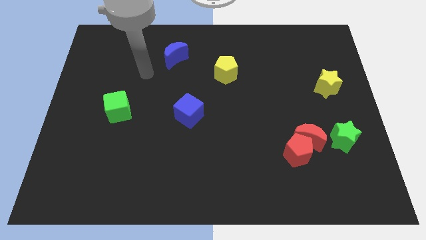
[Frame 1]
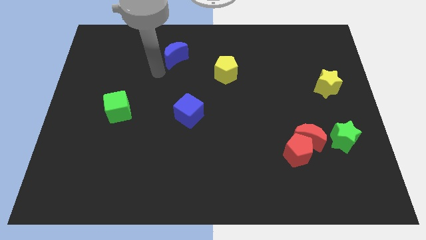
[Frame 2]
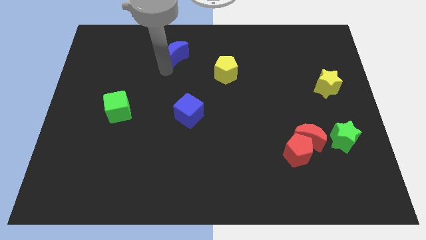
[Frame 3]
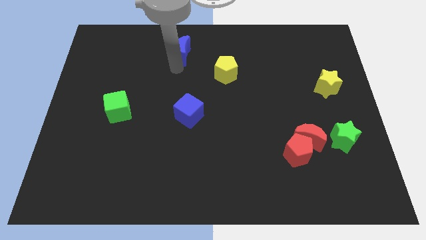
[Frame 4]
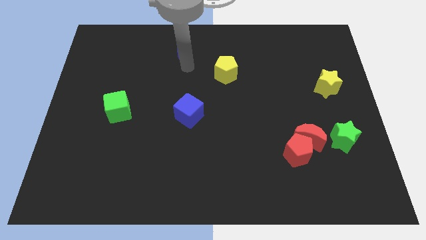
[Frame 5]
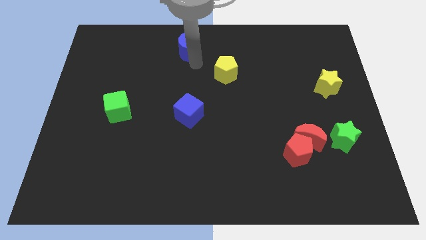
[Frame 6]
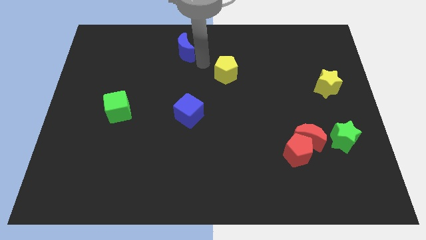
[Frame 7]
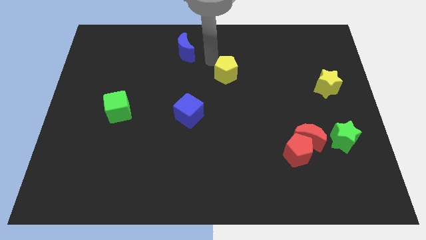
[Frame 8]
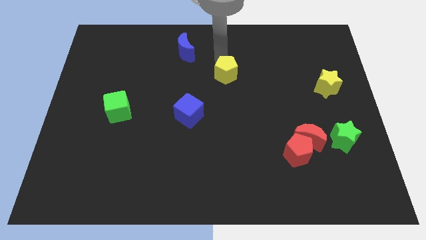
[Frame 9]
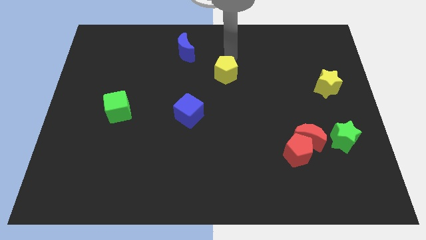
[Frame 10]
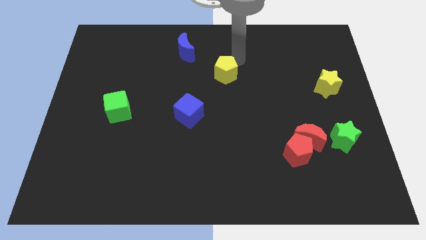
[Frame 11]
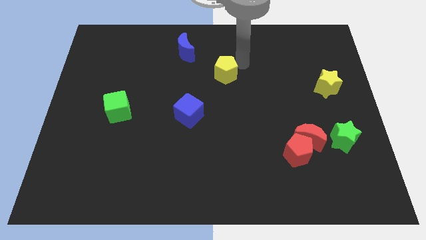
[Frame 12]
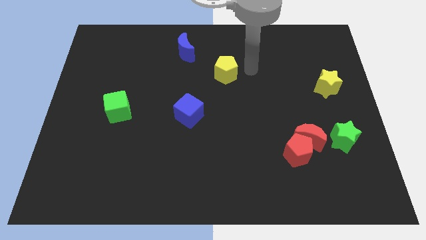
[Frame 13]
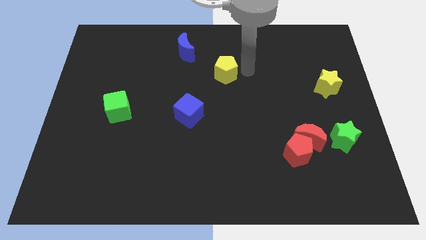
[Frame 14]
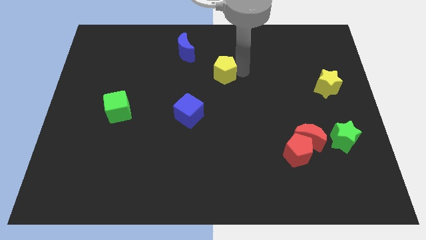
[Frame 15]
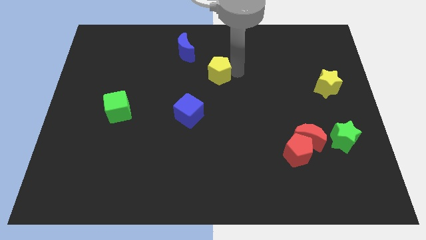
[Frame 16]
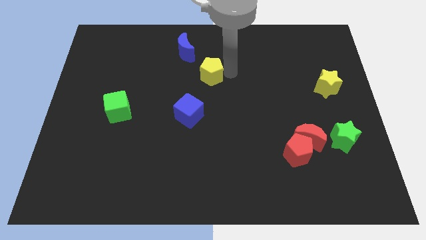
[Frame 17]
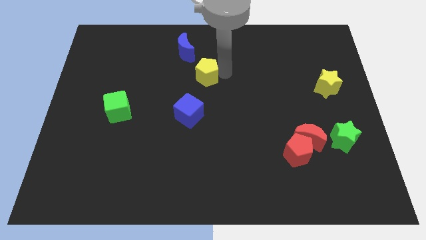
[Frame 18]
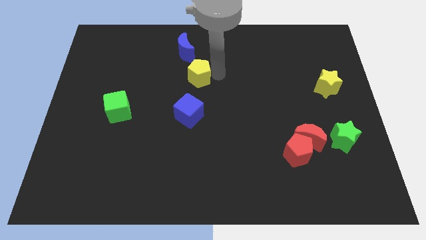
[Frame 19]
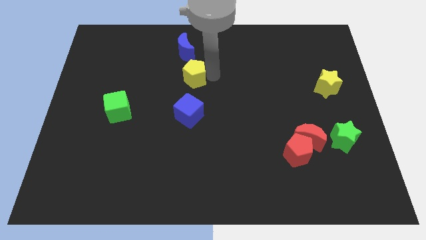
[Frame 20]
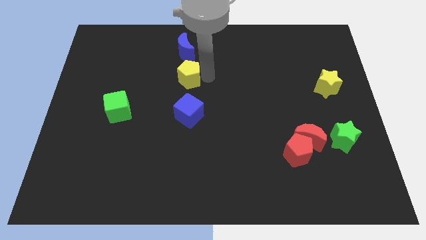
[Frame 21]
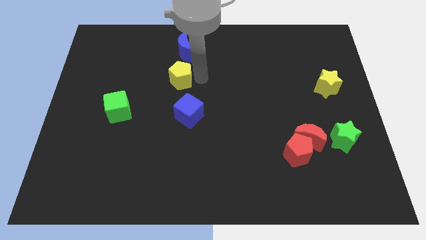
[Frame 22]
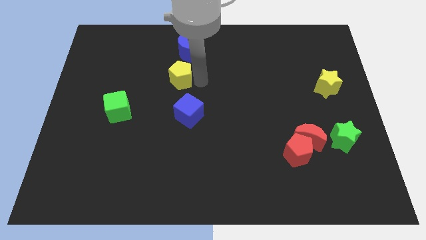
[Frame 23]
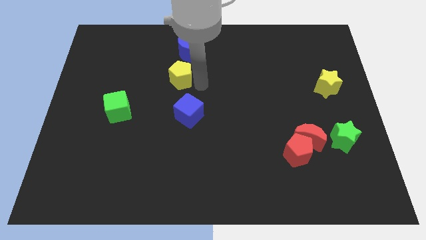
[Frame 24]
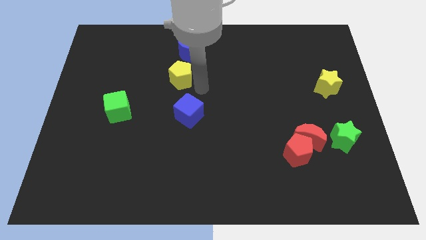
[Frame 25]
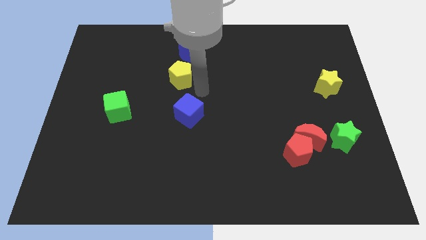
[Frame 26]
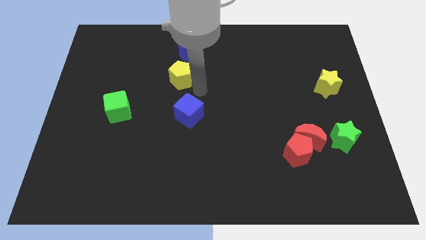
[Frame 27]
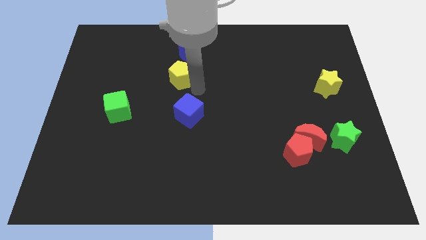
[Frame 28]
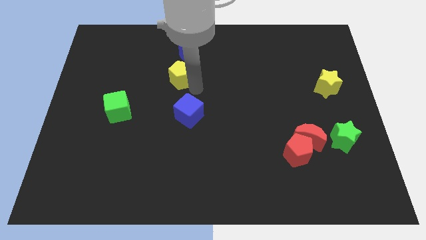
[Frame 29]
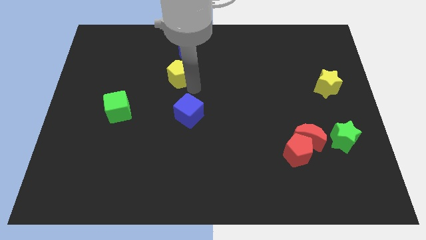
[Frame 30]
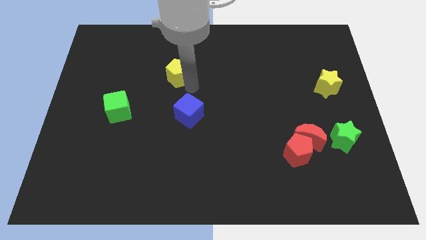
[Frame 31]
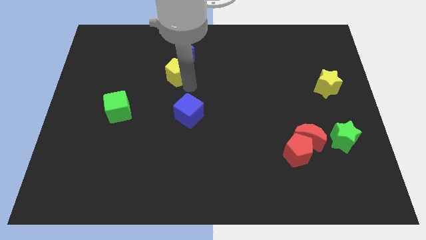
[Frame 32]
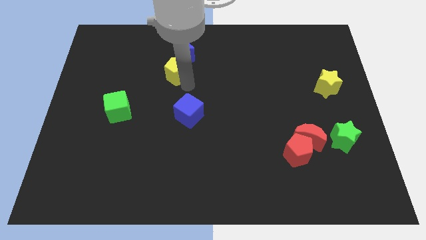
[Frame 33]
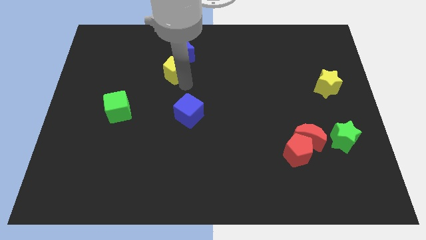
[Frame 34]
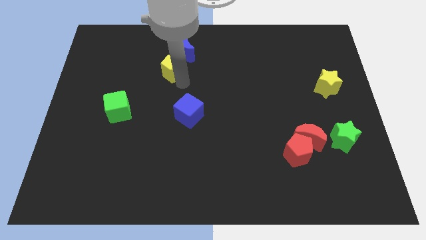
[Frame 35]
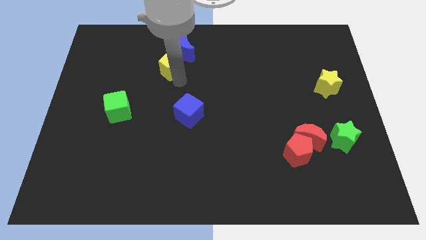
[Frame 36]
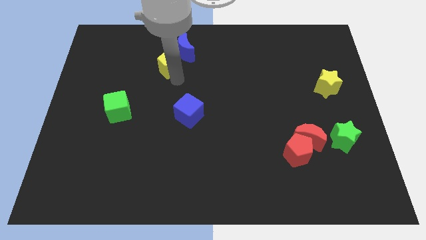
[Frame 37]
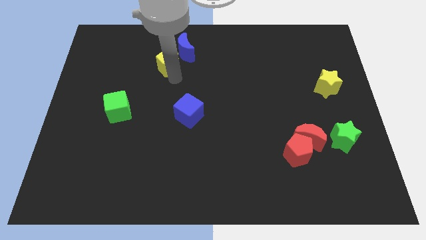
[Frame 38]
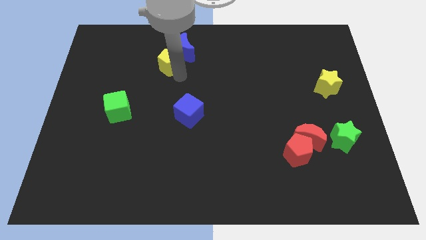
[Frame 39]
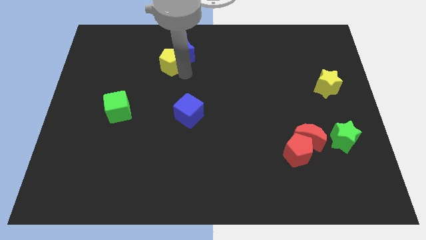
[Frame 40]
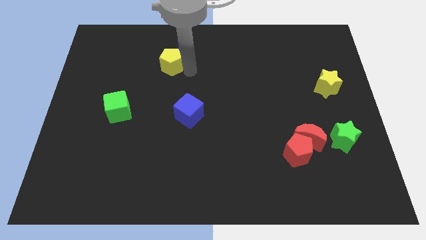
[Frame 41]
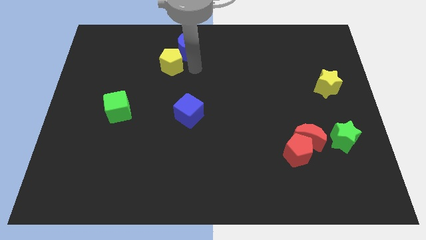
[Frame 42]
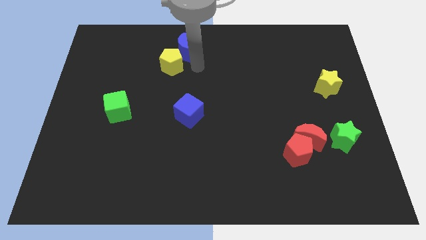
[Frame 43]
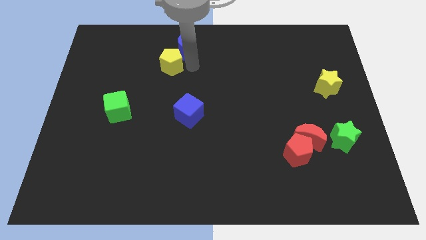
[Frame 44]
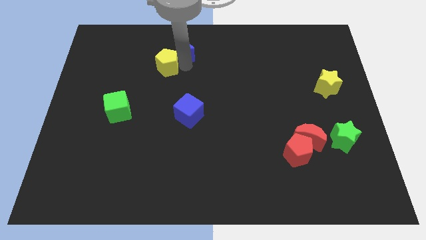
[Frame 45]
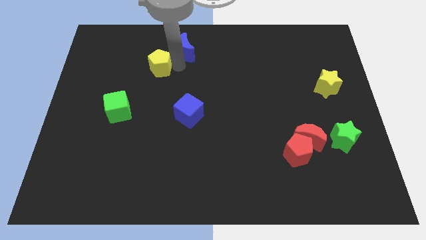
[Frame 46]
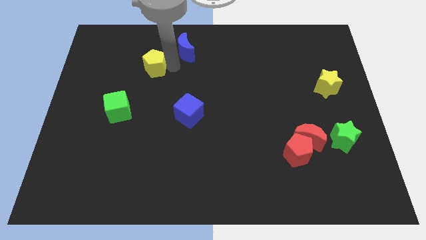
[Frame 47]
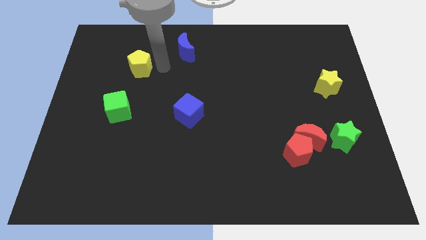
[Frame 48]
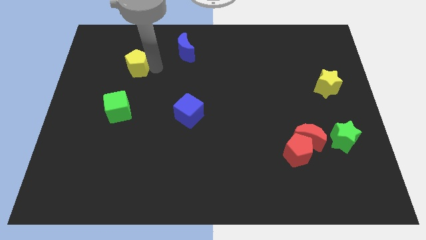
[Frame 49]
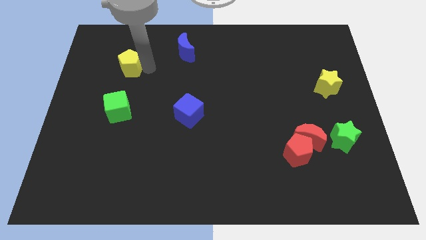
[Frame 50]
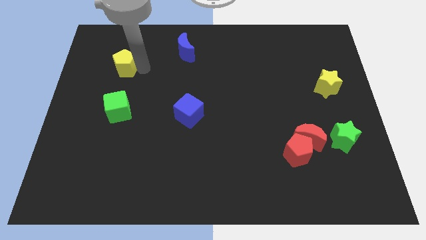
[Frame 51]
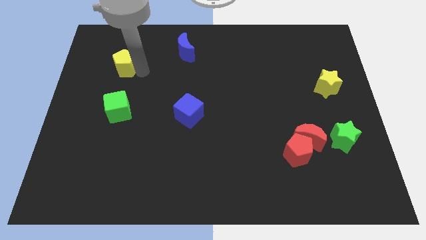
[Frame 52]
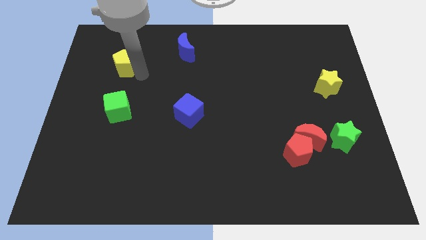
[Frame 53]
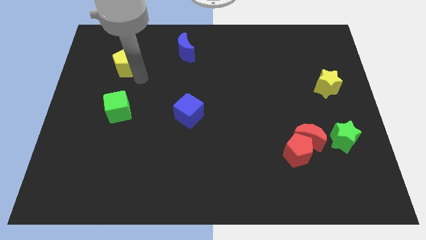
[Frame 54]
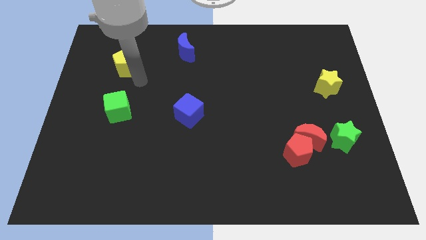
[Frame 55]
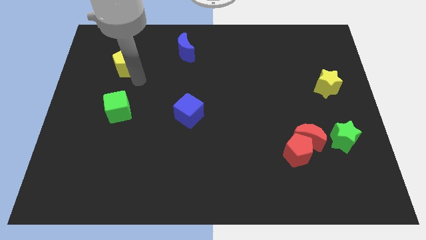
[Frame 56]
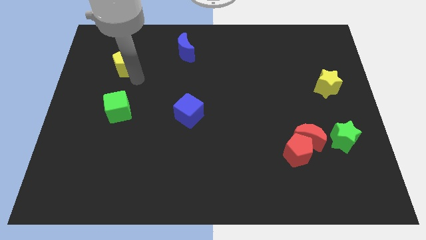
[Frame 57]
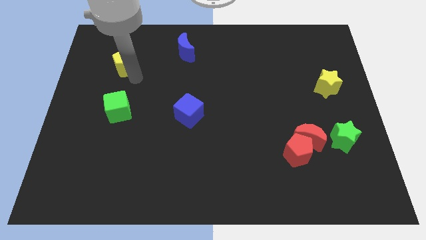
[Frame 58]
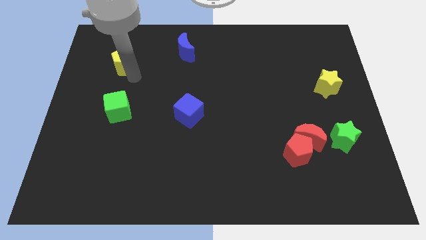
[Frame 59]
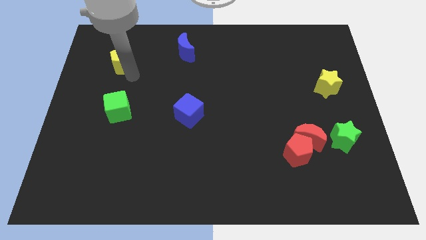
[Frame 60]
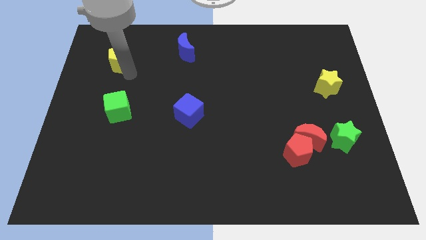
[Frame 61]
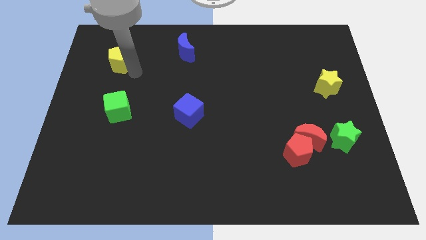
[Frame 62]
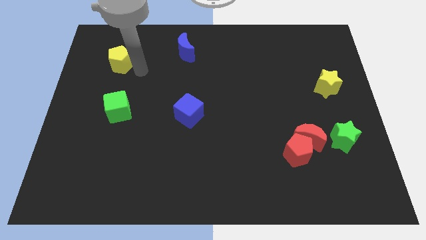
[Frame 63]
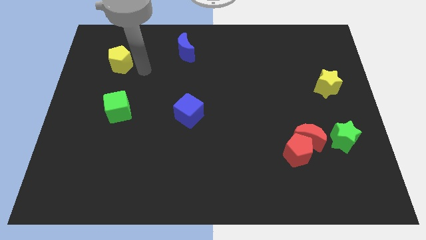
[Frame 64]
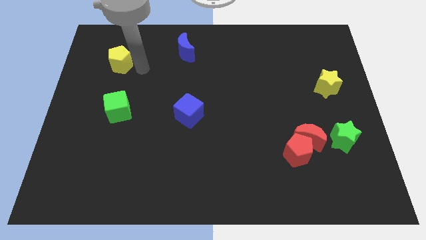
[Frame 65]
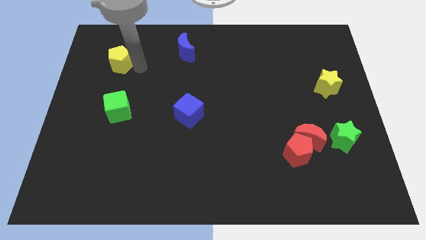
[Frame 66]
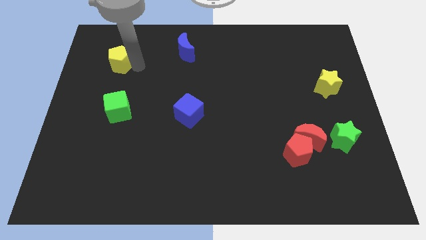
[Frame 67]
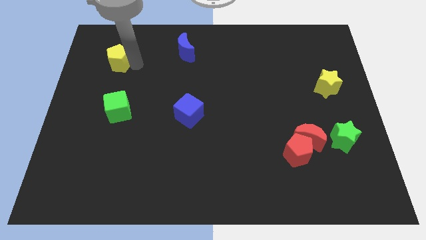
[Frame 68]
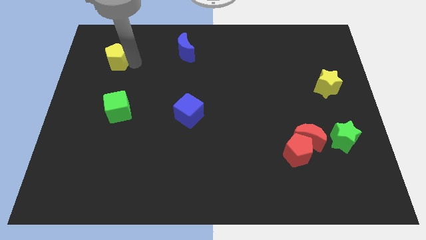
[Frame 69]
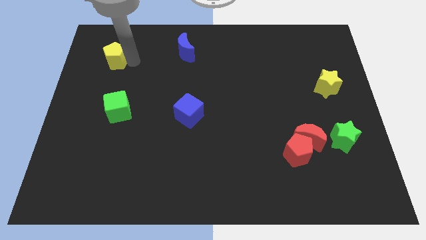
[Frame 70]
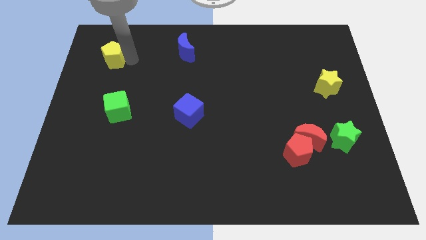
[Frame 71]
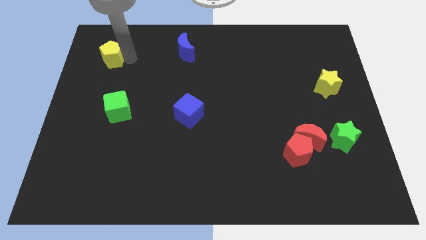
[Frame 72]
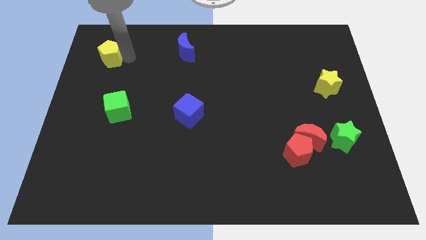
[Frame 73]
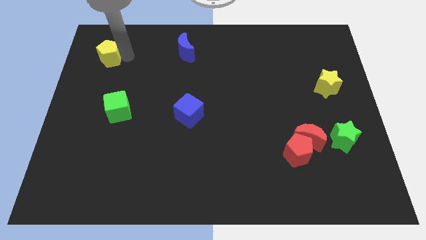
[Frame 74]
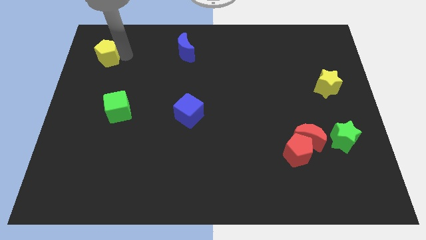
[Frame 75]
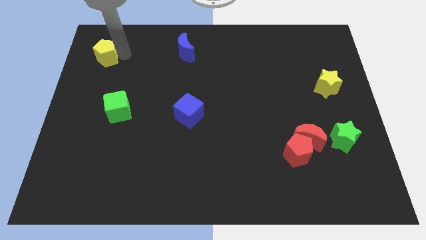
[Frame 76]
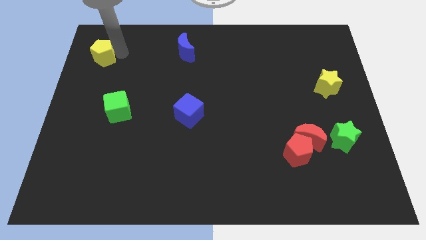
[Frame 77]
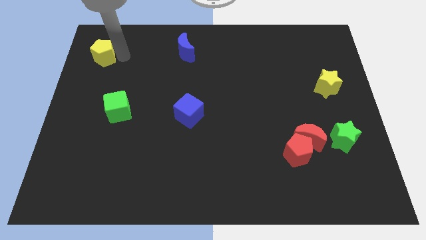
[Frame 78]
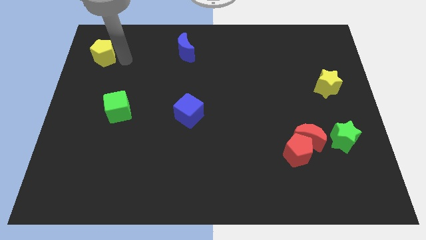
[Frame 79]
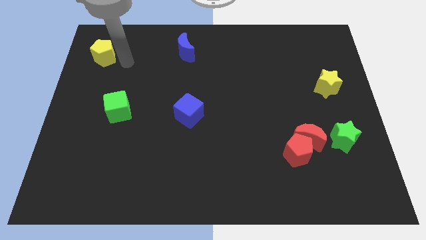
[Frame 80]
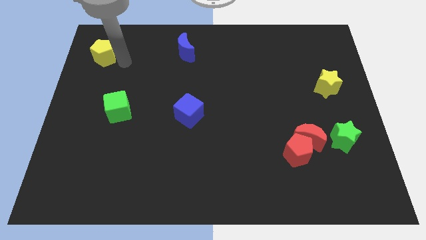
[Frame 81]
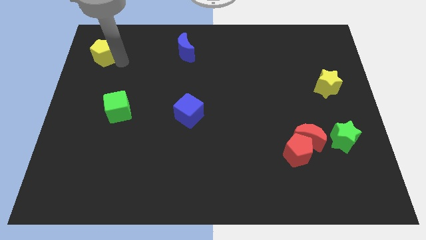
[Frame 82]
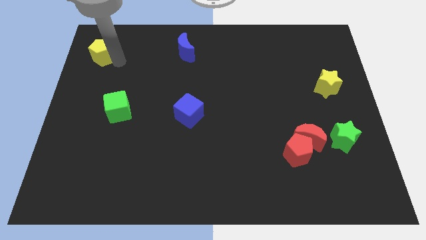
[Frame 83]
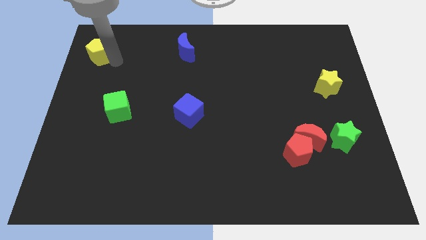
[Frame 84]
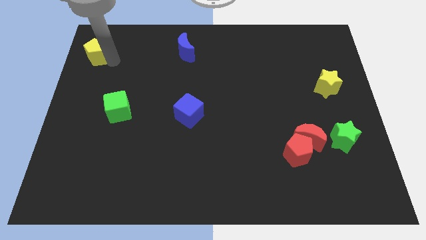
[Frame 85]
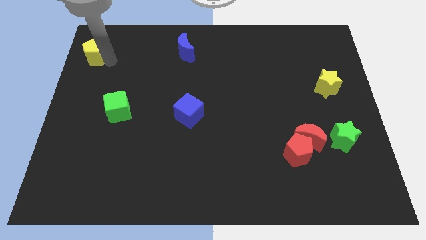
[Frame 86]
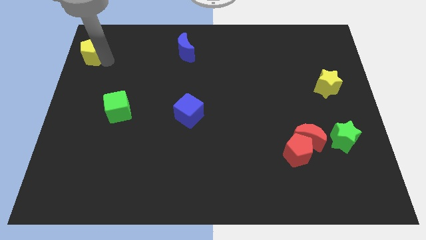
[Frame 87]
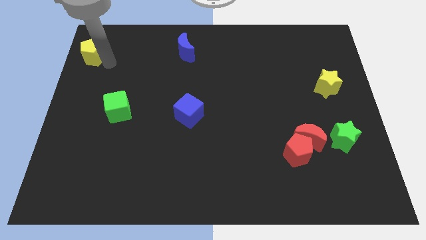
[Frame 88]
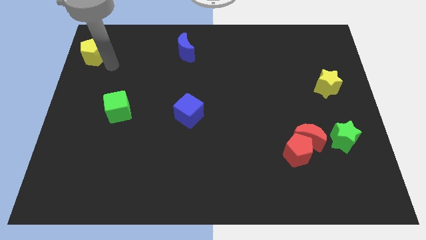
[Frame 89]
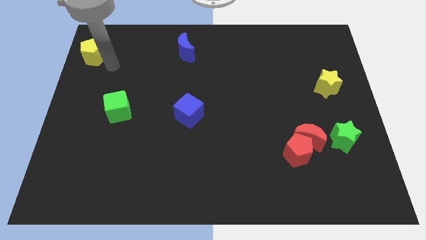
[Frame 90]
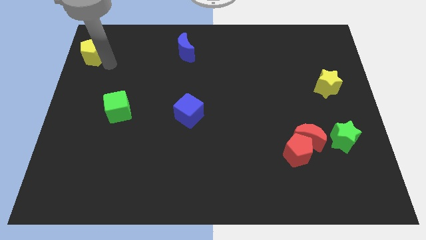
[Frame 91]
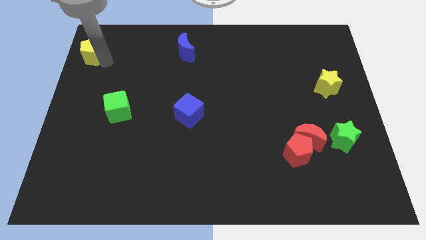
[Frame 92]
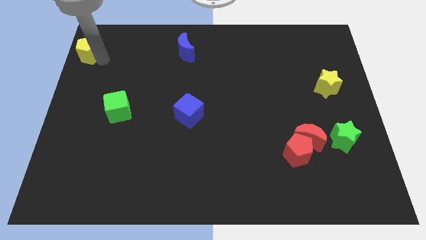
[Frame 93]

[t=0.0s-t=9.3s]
push the yellow pentagon to the top left
